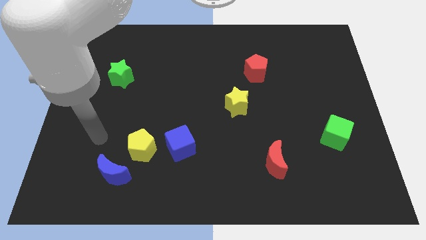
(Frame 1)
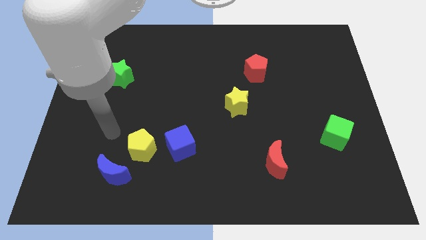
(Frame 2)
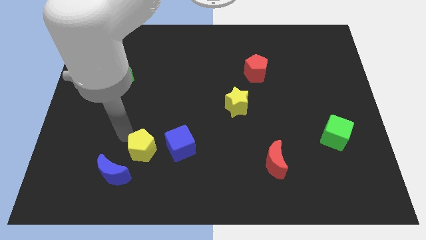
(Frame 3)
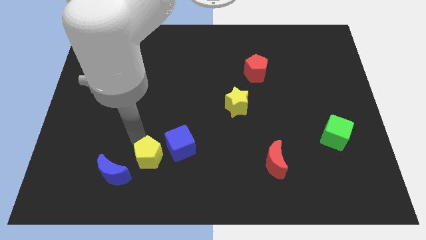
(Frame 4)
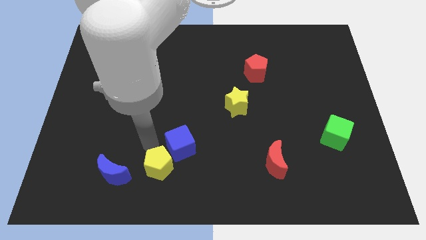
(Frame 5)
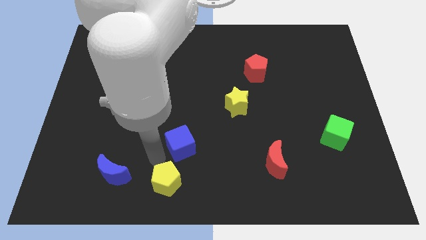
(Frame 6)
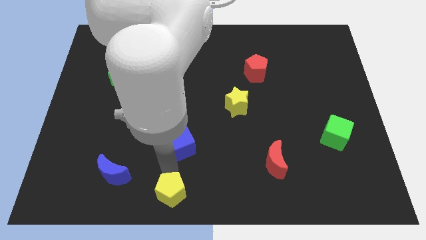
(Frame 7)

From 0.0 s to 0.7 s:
pull the blue cube apart from the yellow pentagon

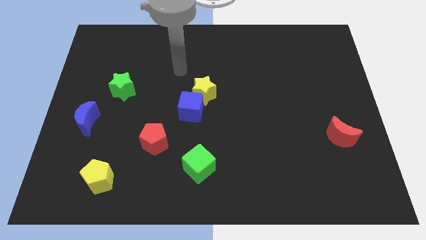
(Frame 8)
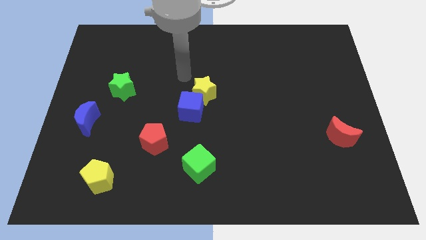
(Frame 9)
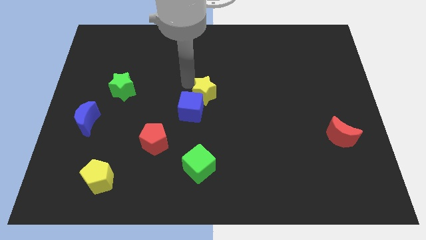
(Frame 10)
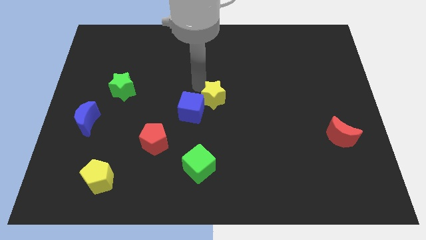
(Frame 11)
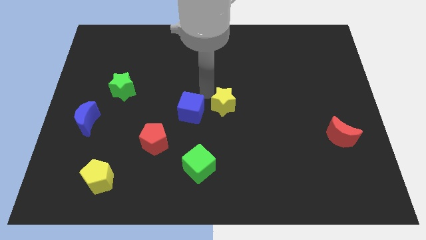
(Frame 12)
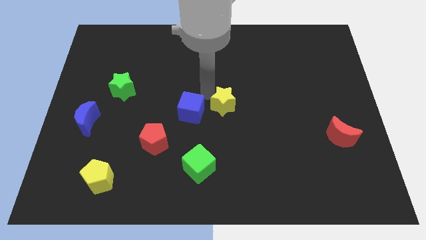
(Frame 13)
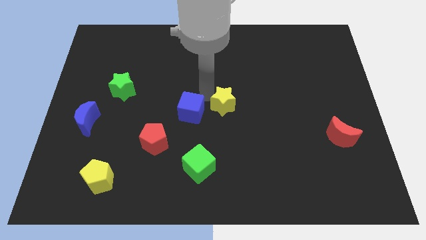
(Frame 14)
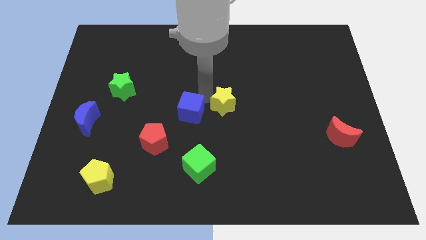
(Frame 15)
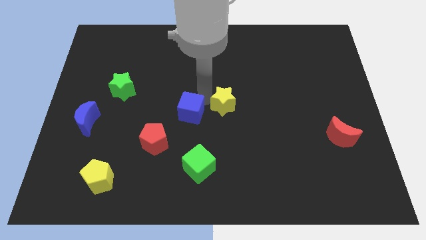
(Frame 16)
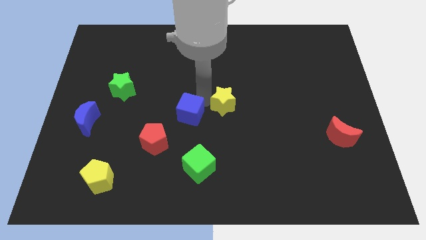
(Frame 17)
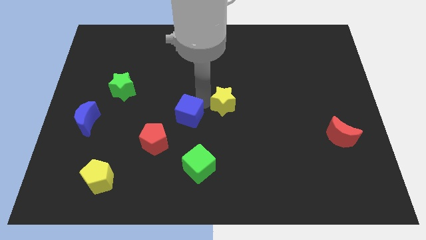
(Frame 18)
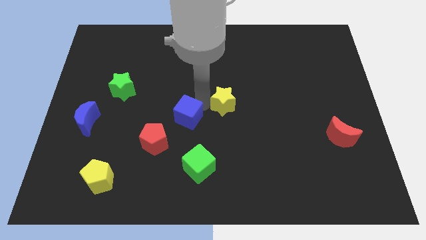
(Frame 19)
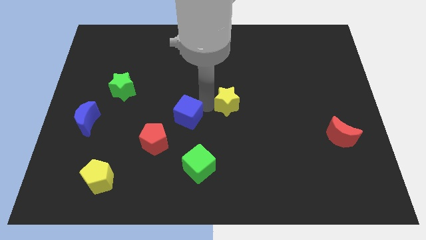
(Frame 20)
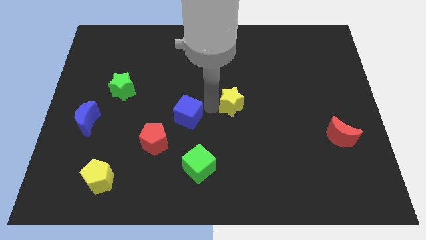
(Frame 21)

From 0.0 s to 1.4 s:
pull the blue cube apart from the yellow star

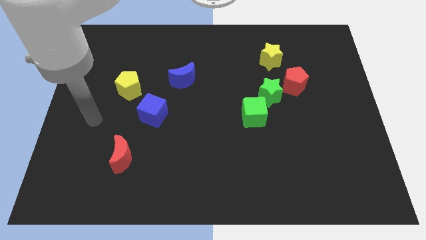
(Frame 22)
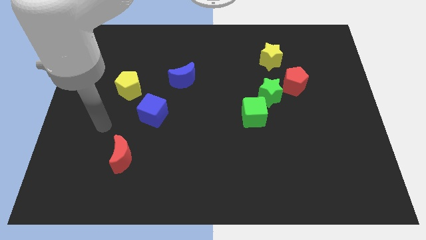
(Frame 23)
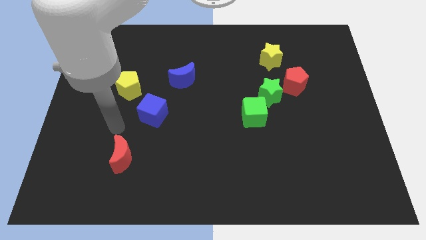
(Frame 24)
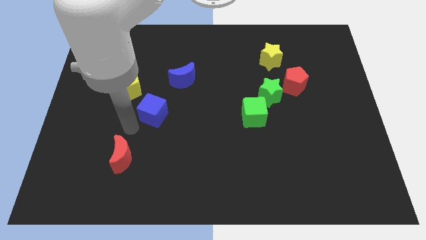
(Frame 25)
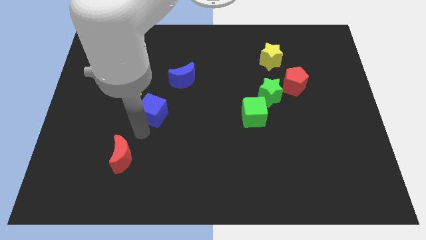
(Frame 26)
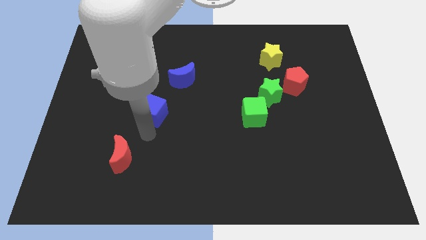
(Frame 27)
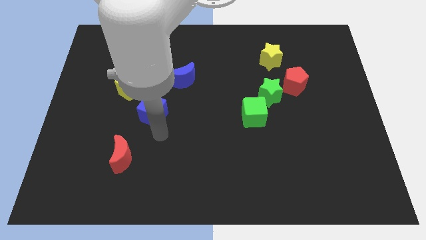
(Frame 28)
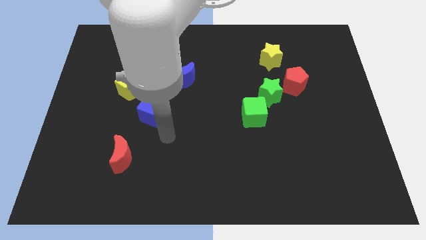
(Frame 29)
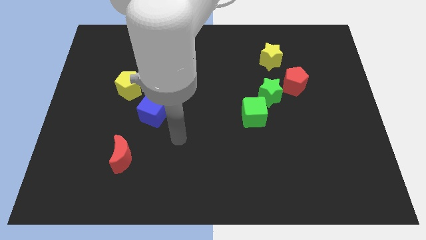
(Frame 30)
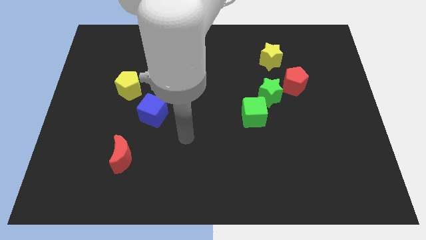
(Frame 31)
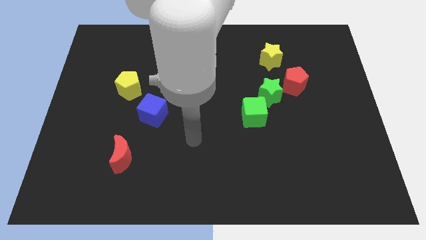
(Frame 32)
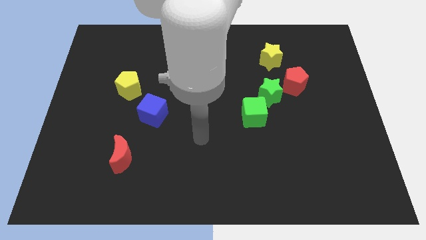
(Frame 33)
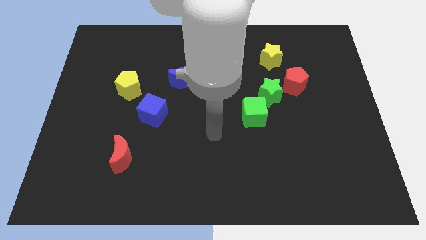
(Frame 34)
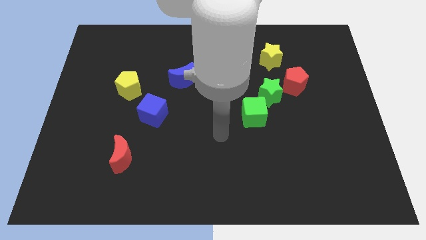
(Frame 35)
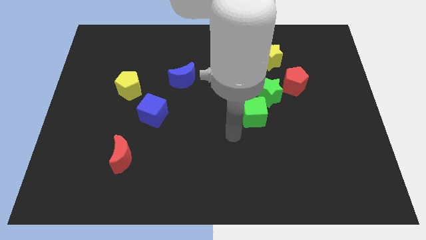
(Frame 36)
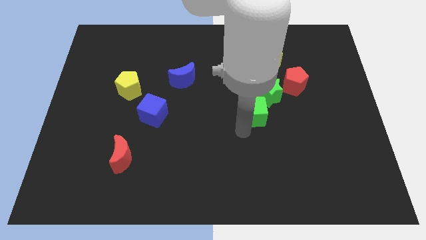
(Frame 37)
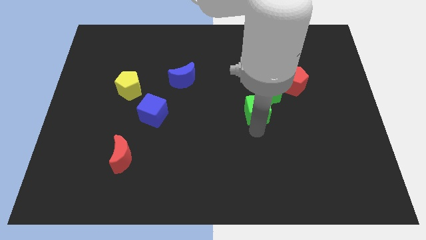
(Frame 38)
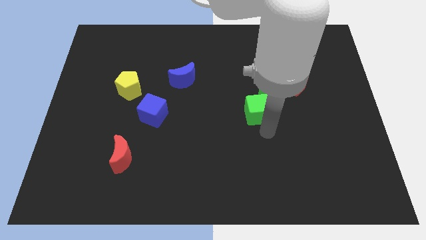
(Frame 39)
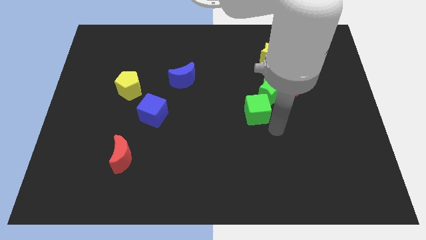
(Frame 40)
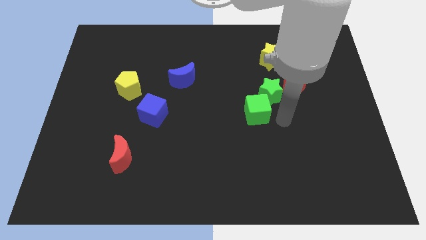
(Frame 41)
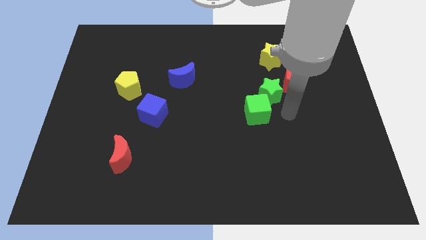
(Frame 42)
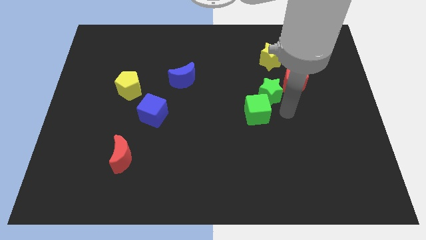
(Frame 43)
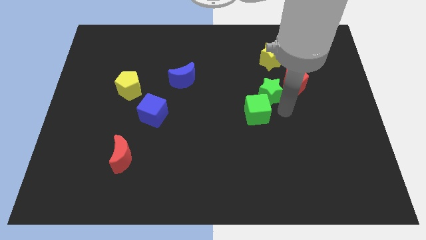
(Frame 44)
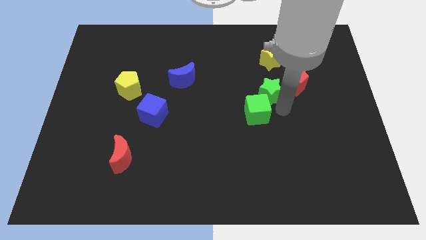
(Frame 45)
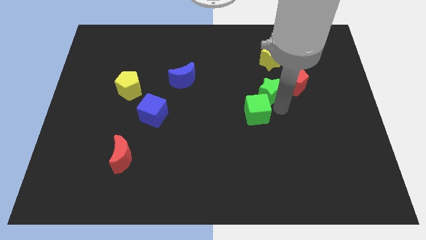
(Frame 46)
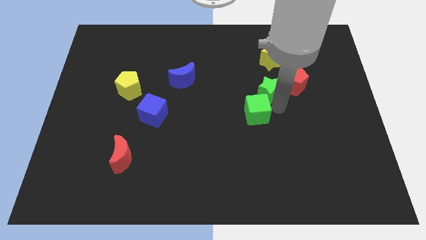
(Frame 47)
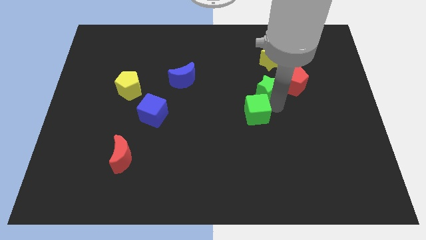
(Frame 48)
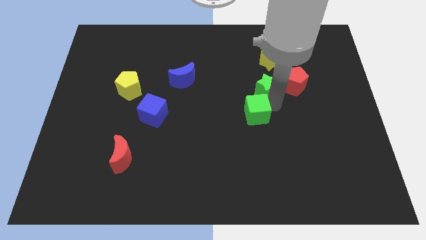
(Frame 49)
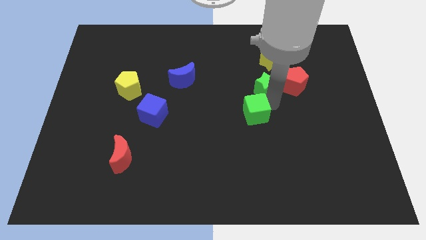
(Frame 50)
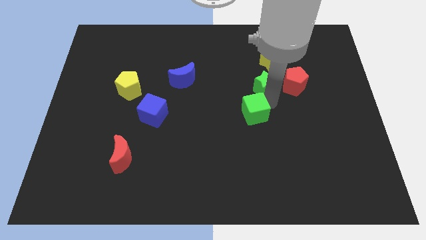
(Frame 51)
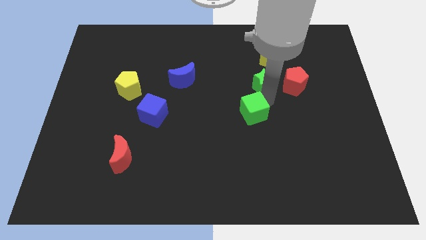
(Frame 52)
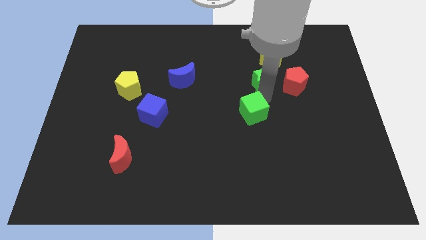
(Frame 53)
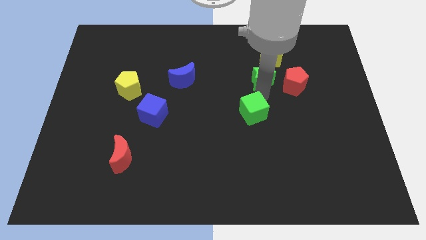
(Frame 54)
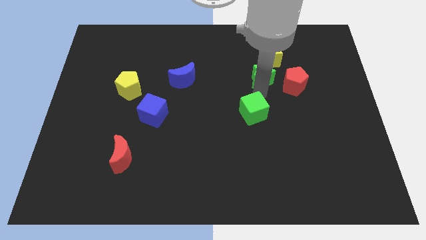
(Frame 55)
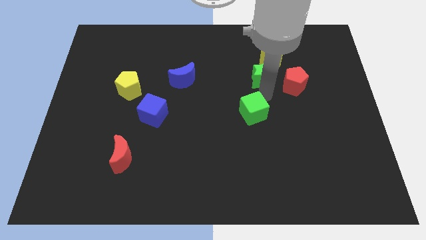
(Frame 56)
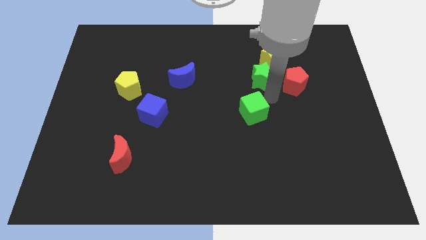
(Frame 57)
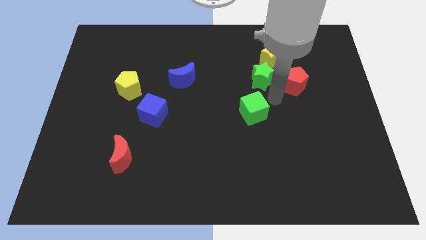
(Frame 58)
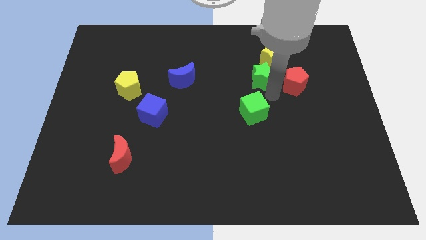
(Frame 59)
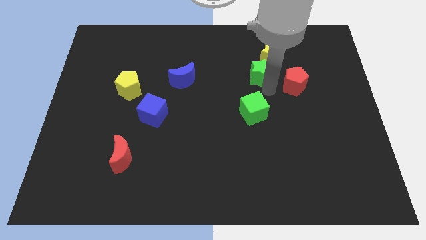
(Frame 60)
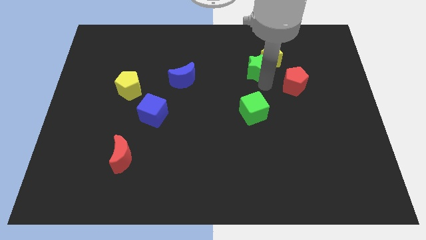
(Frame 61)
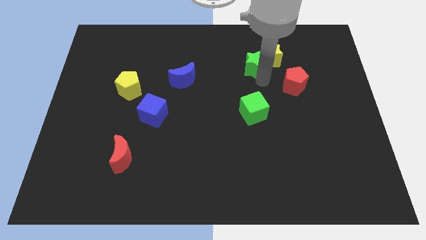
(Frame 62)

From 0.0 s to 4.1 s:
separate the green star from the red pentagon and green cube

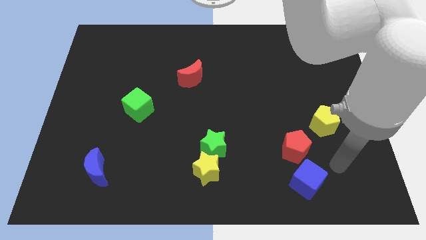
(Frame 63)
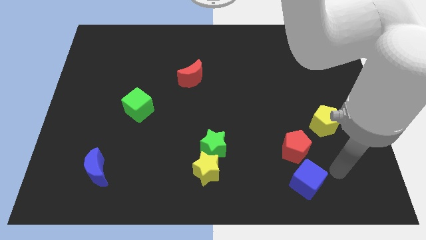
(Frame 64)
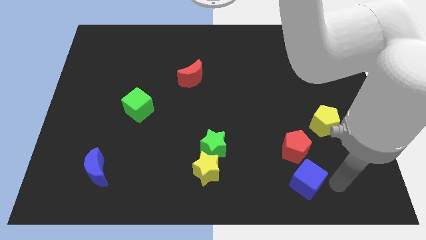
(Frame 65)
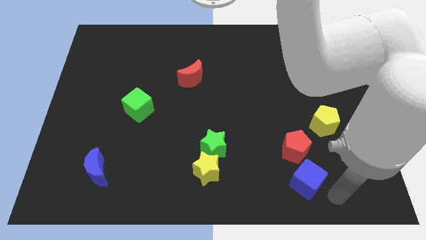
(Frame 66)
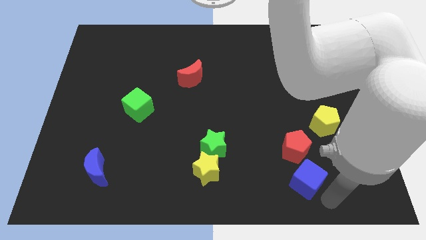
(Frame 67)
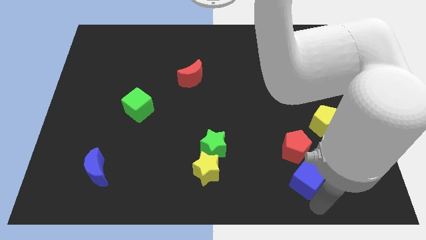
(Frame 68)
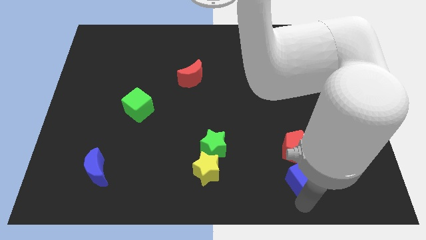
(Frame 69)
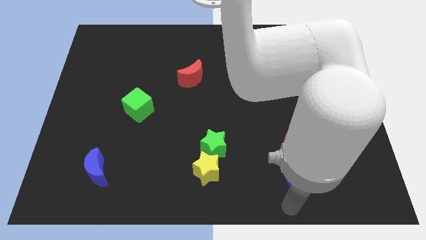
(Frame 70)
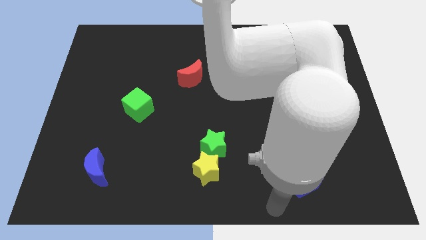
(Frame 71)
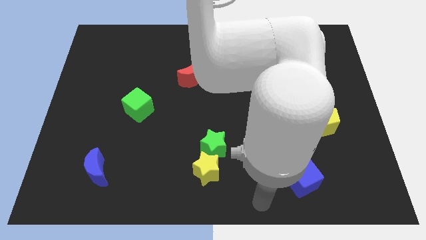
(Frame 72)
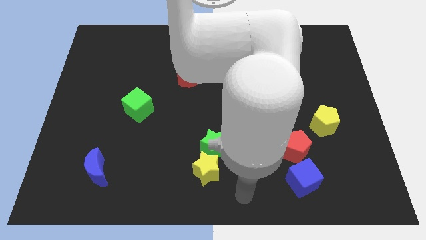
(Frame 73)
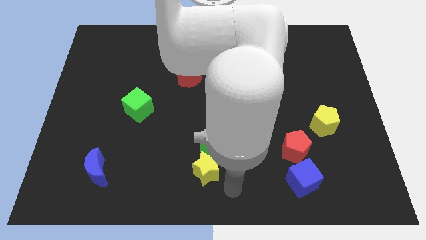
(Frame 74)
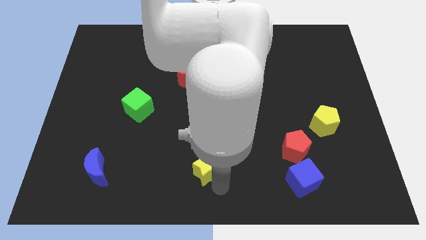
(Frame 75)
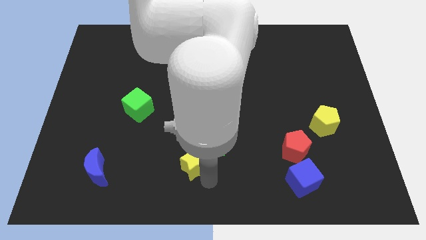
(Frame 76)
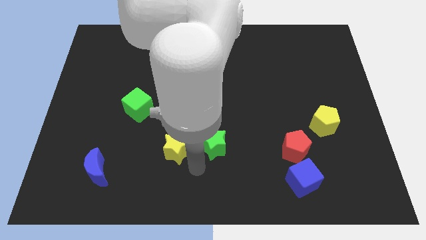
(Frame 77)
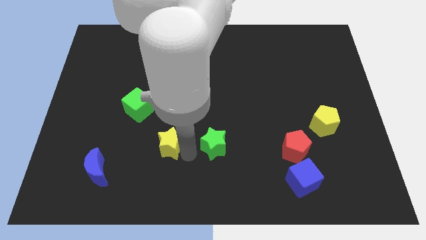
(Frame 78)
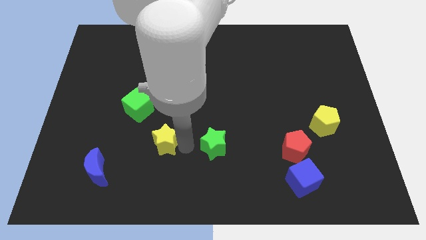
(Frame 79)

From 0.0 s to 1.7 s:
separate the green star from the yellow star

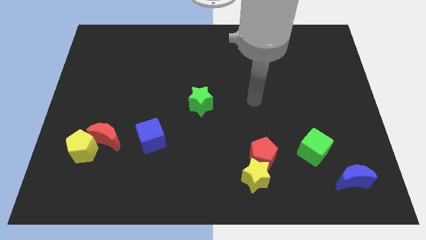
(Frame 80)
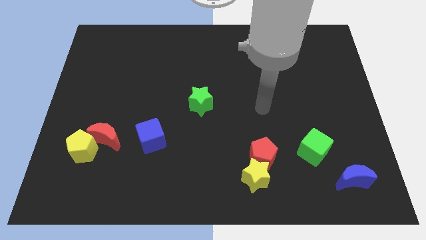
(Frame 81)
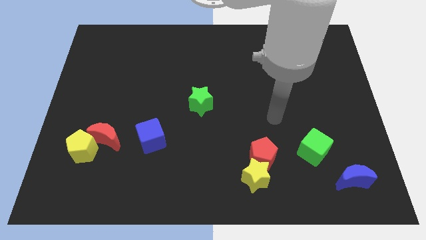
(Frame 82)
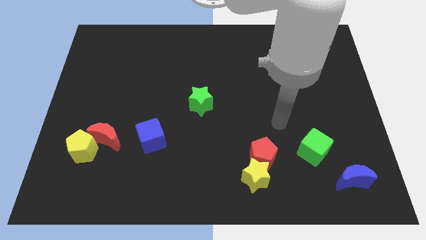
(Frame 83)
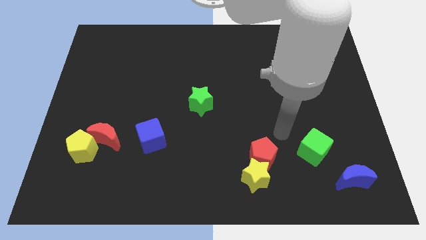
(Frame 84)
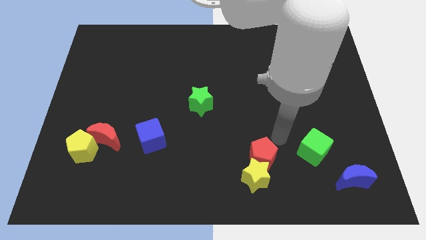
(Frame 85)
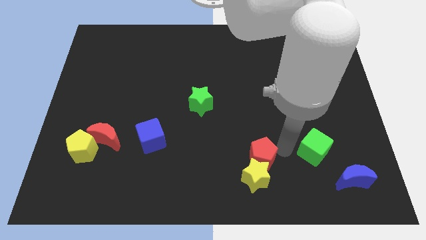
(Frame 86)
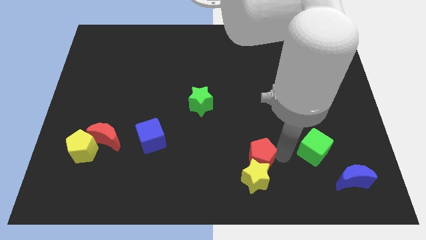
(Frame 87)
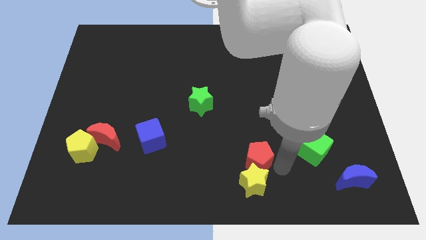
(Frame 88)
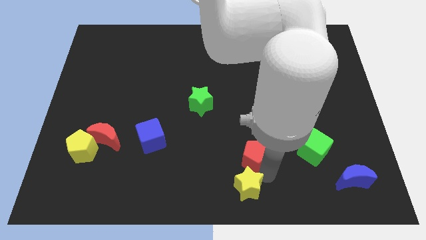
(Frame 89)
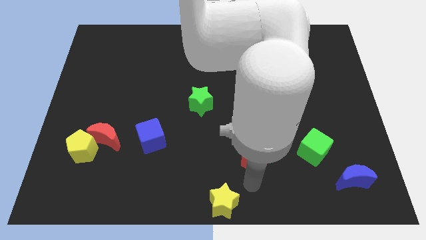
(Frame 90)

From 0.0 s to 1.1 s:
separate the red pentagon from the yellow star

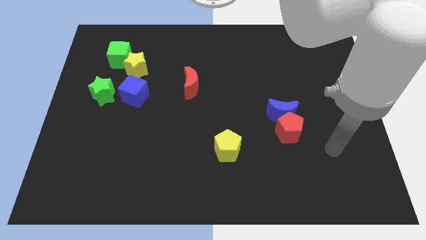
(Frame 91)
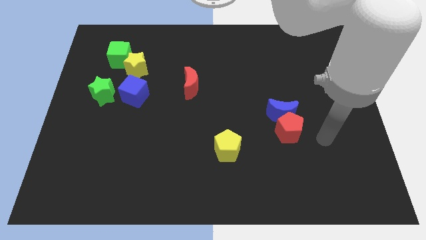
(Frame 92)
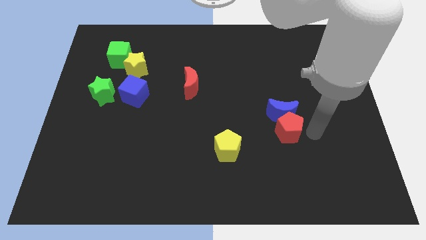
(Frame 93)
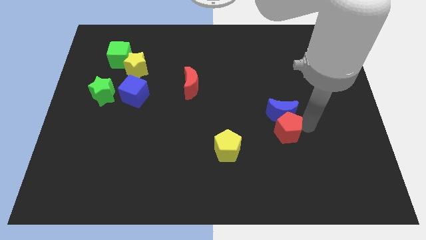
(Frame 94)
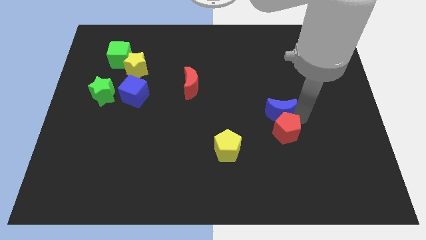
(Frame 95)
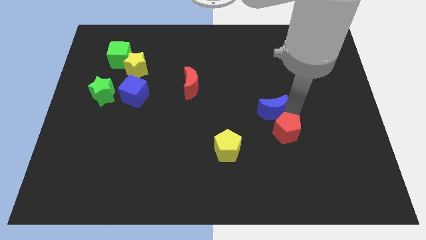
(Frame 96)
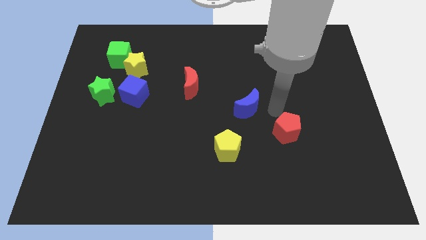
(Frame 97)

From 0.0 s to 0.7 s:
pull the red pentagon apart from the blue moon
